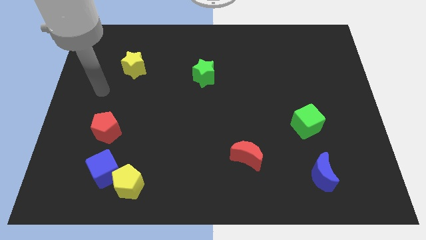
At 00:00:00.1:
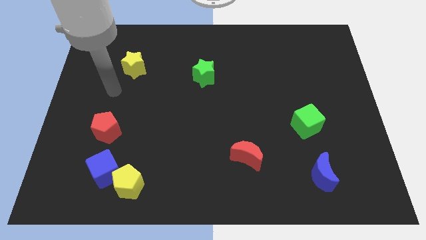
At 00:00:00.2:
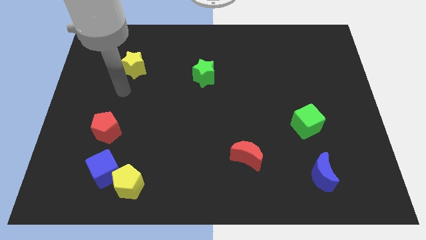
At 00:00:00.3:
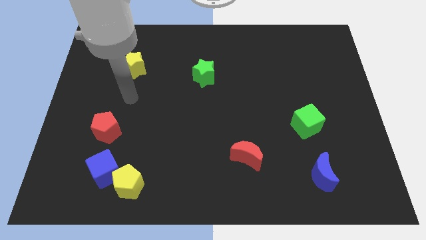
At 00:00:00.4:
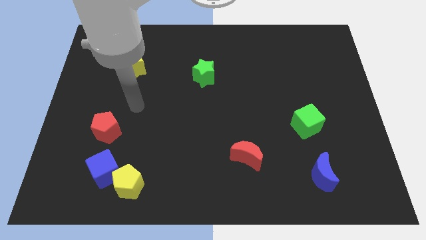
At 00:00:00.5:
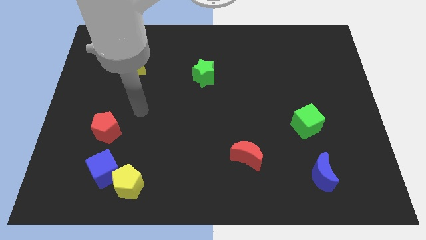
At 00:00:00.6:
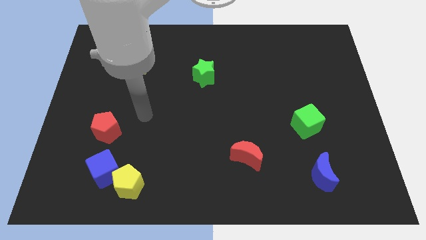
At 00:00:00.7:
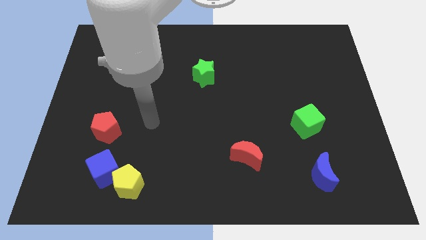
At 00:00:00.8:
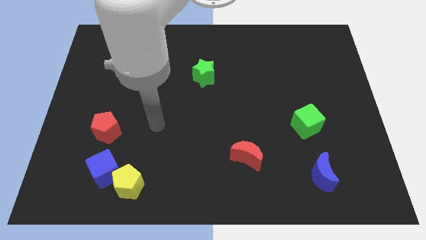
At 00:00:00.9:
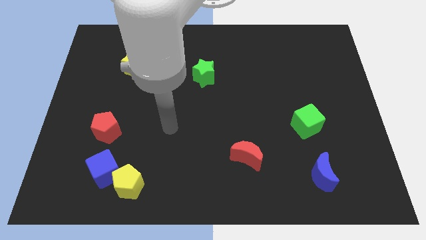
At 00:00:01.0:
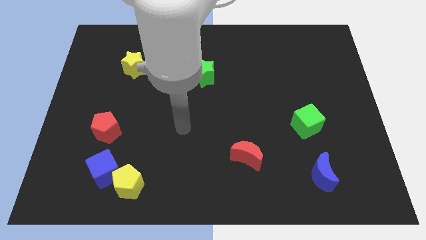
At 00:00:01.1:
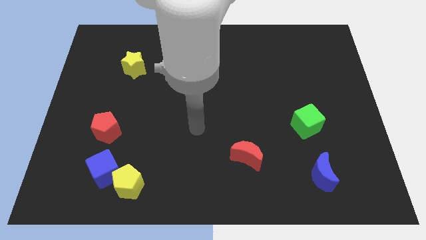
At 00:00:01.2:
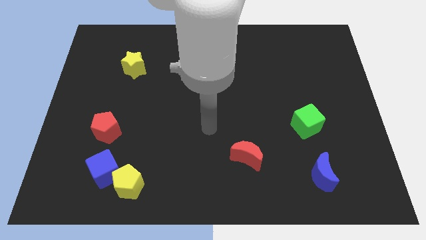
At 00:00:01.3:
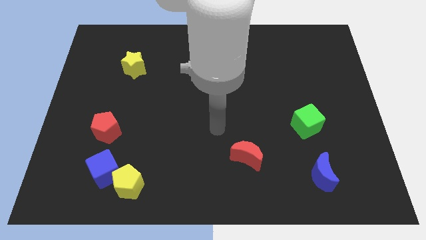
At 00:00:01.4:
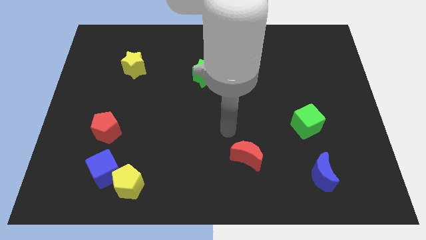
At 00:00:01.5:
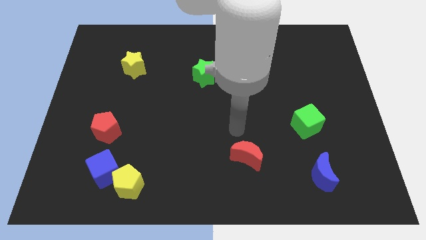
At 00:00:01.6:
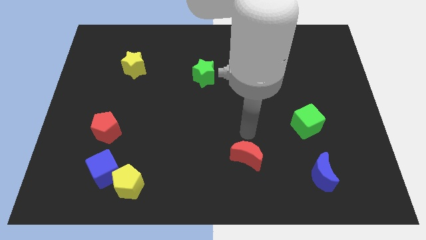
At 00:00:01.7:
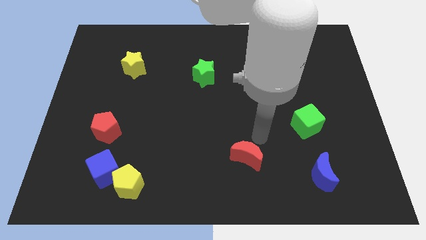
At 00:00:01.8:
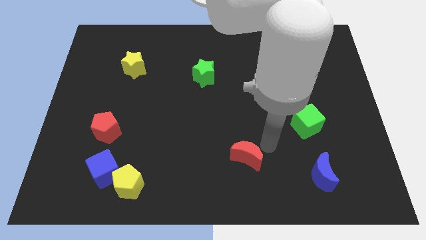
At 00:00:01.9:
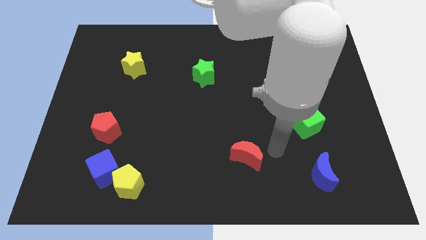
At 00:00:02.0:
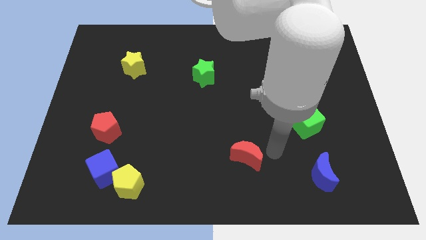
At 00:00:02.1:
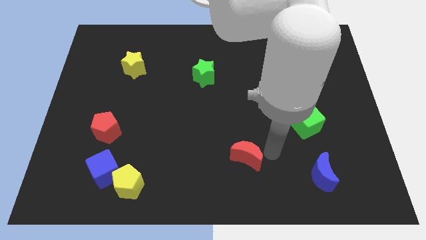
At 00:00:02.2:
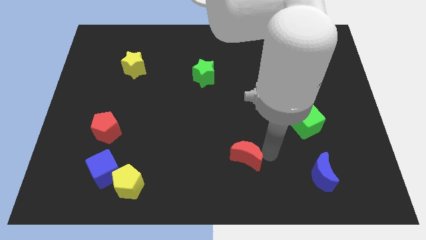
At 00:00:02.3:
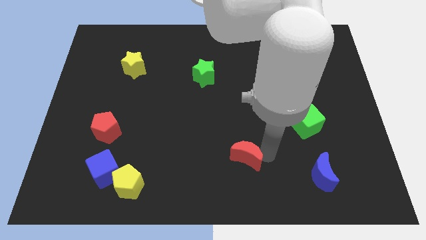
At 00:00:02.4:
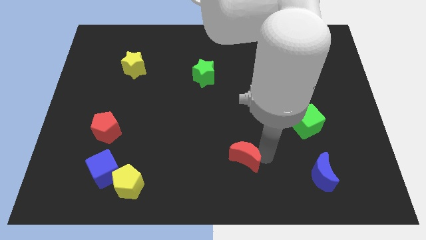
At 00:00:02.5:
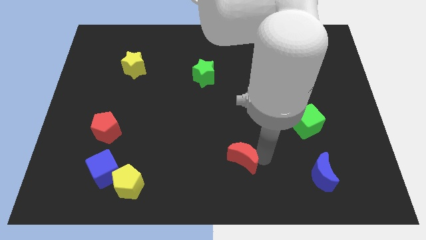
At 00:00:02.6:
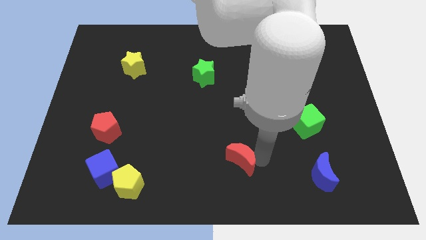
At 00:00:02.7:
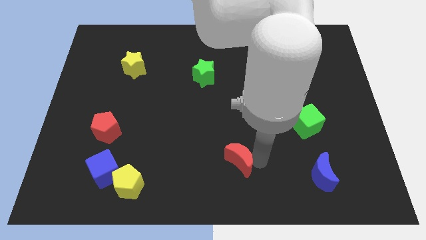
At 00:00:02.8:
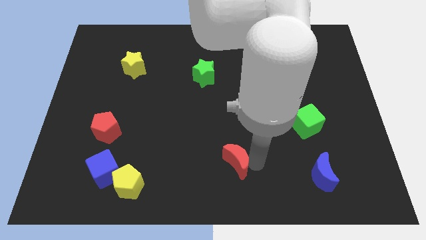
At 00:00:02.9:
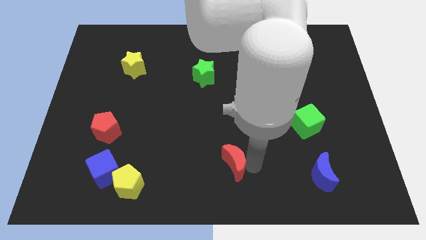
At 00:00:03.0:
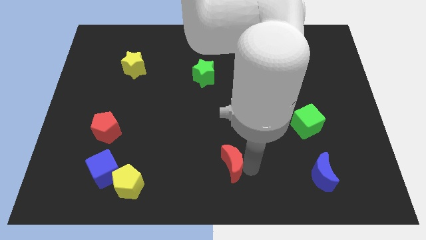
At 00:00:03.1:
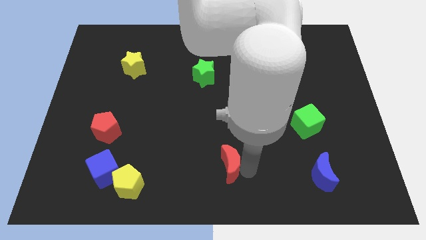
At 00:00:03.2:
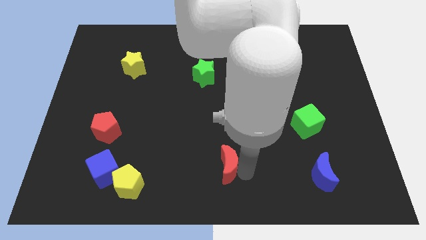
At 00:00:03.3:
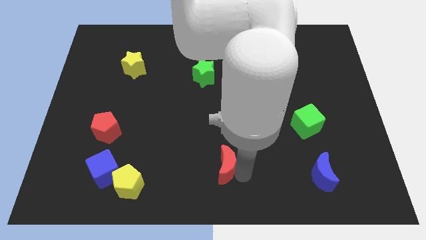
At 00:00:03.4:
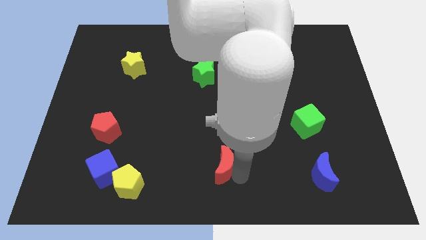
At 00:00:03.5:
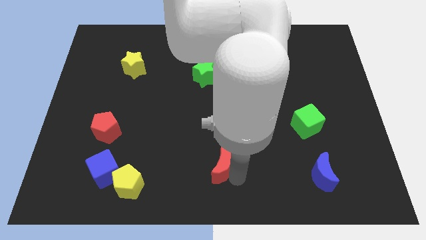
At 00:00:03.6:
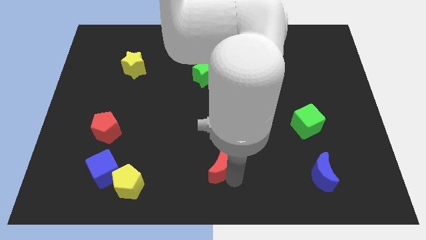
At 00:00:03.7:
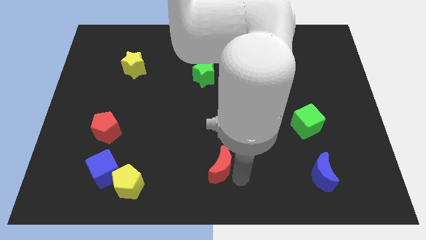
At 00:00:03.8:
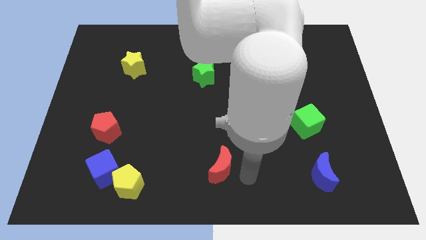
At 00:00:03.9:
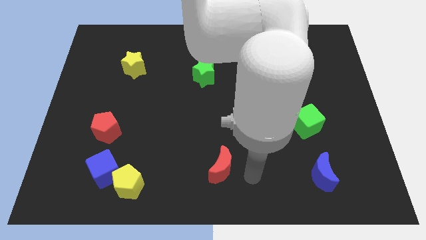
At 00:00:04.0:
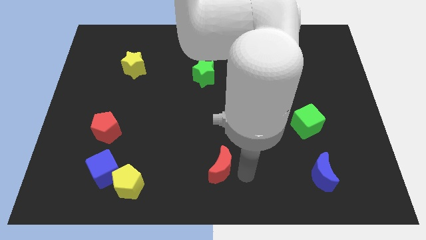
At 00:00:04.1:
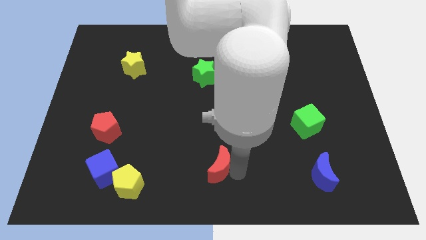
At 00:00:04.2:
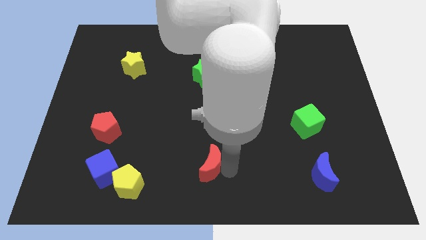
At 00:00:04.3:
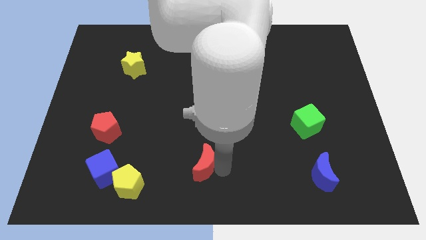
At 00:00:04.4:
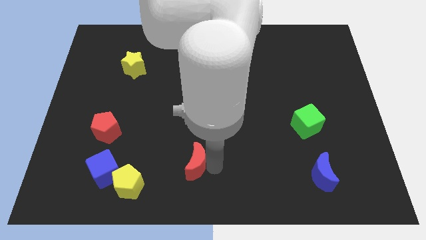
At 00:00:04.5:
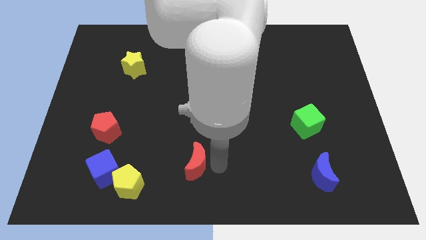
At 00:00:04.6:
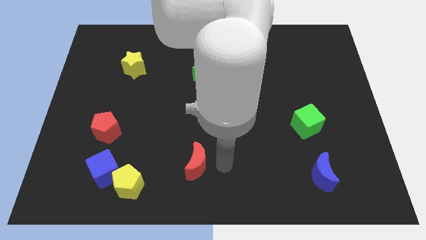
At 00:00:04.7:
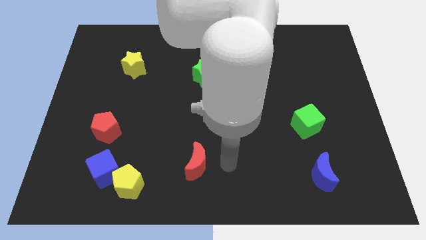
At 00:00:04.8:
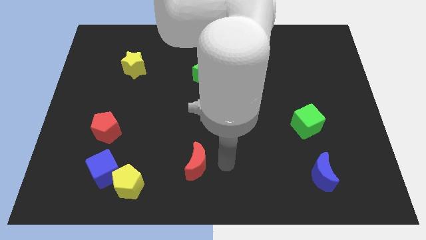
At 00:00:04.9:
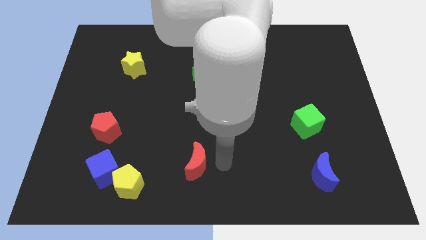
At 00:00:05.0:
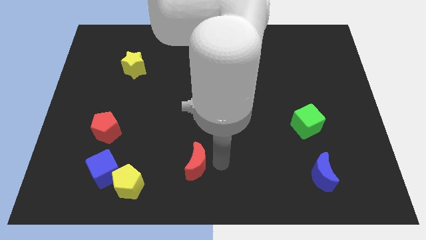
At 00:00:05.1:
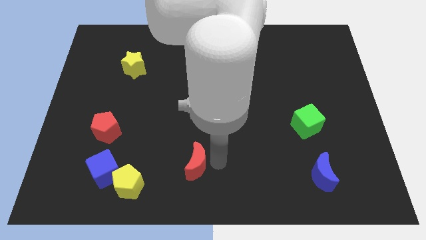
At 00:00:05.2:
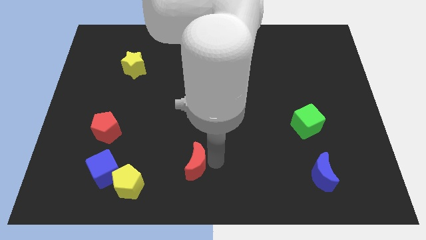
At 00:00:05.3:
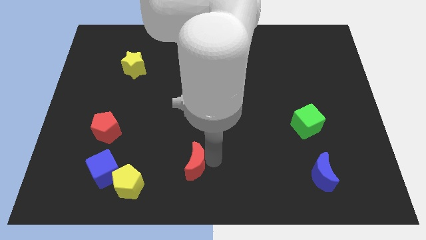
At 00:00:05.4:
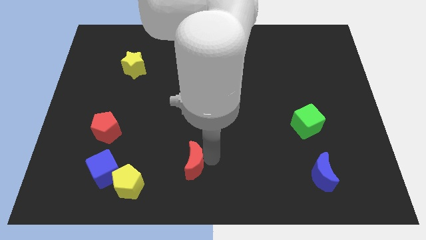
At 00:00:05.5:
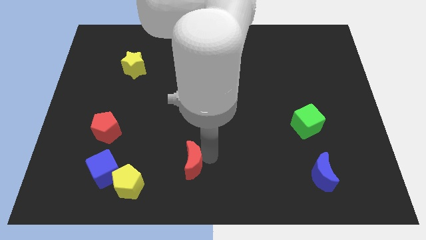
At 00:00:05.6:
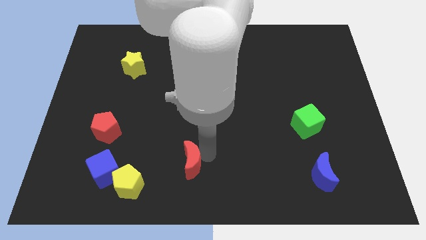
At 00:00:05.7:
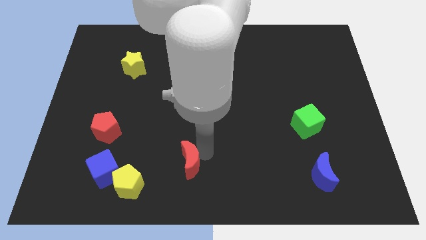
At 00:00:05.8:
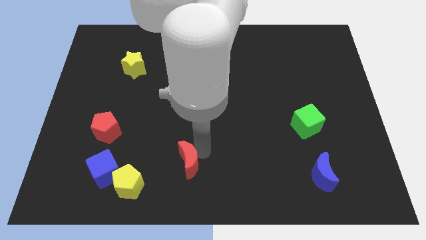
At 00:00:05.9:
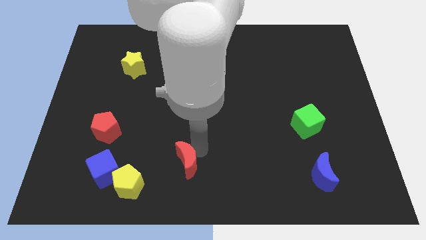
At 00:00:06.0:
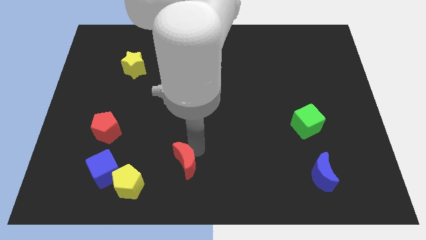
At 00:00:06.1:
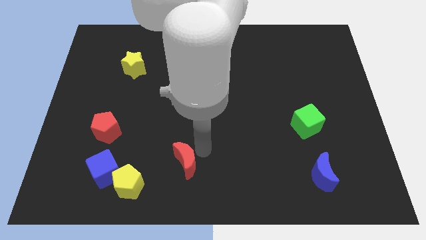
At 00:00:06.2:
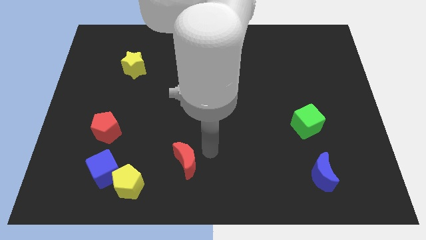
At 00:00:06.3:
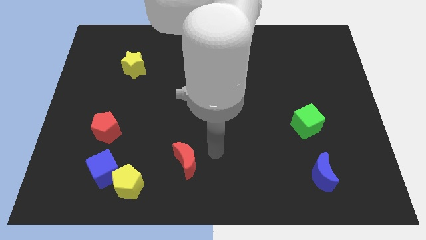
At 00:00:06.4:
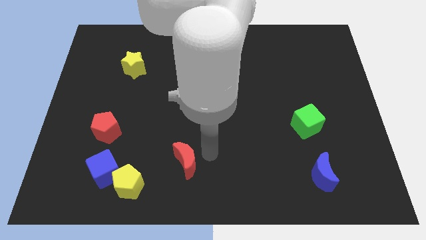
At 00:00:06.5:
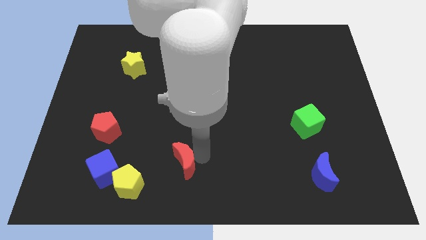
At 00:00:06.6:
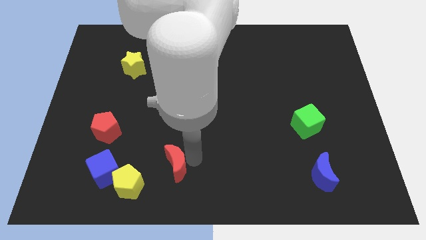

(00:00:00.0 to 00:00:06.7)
put the red moon to the right side of the blue cube
